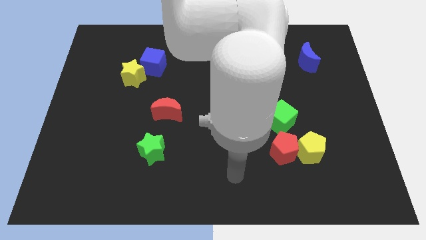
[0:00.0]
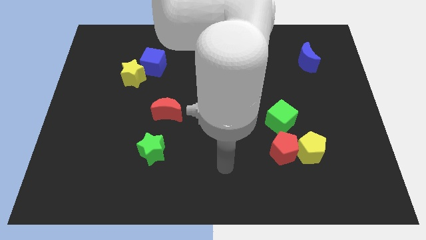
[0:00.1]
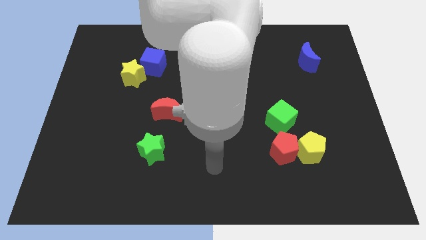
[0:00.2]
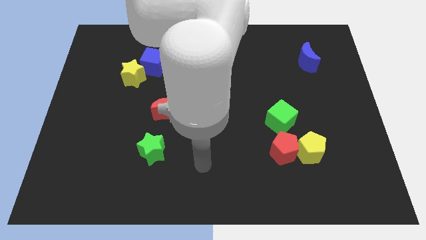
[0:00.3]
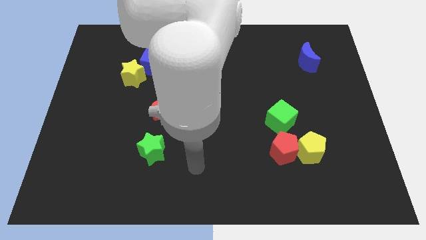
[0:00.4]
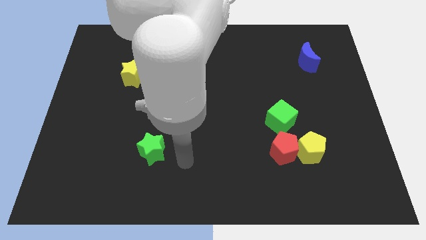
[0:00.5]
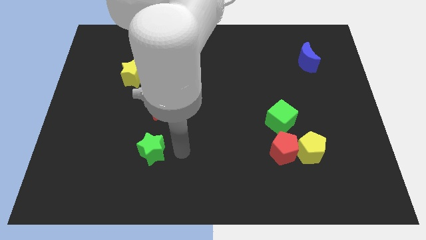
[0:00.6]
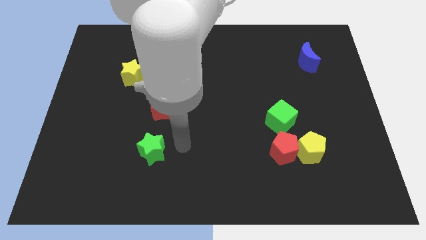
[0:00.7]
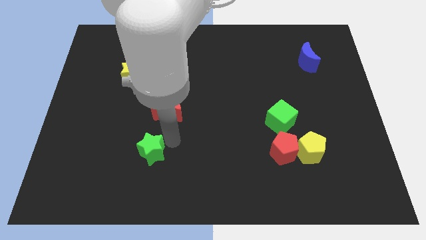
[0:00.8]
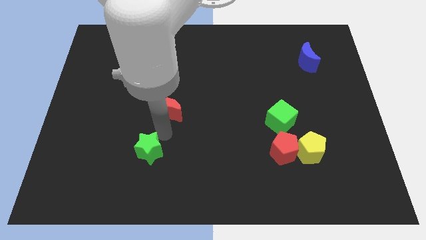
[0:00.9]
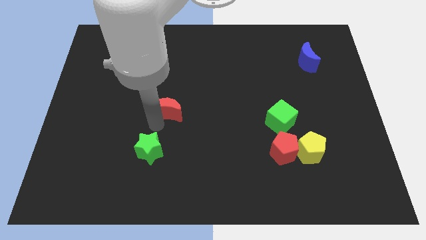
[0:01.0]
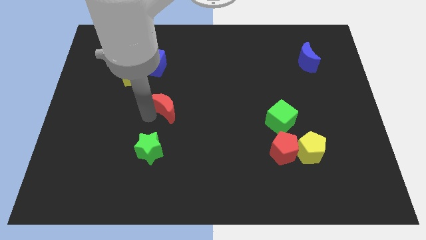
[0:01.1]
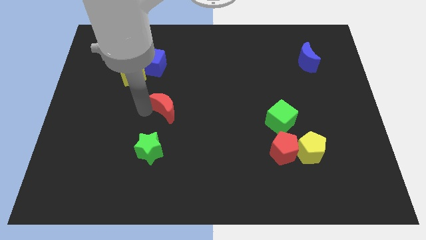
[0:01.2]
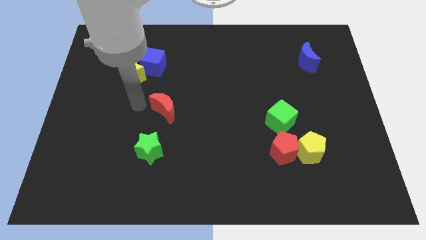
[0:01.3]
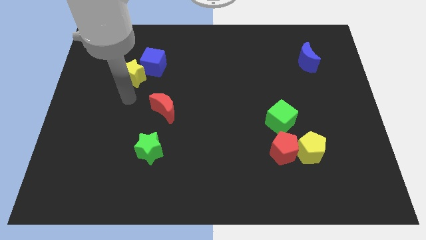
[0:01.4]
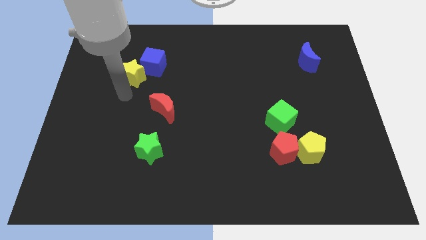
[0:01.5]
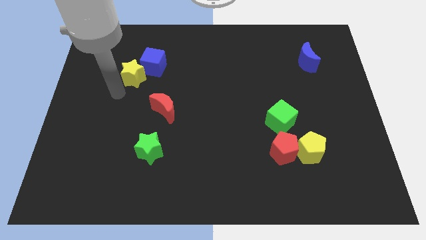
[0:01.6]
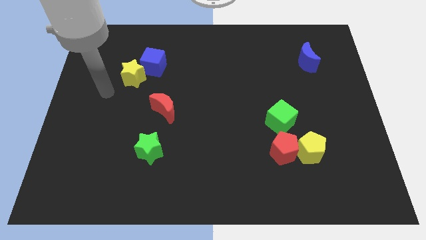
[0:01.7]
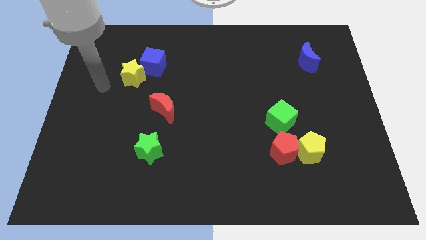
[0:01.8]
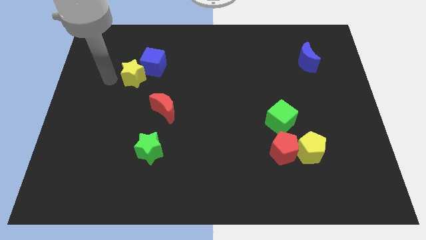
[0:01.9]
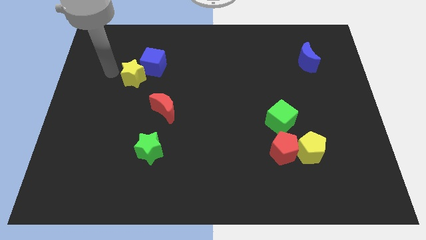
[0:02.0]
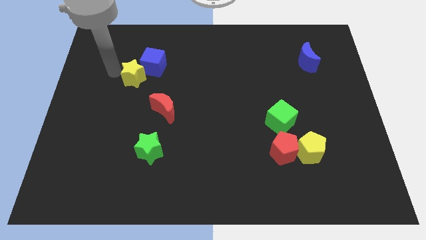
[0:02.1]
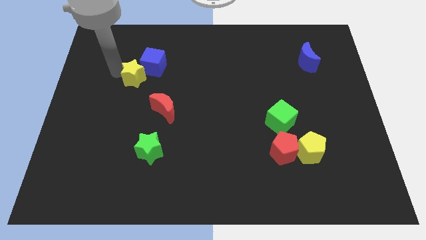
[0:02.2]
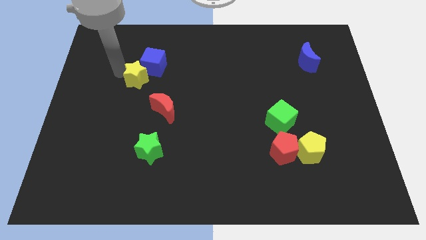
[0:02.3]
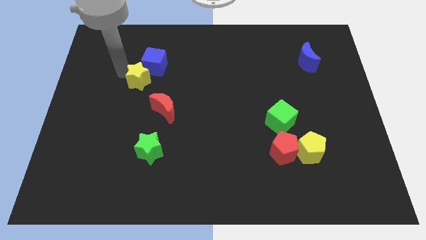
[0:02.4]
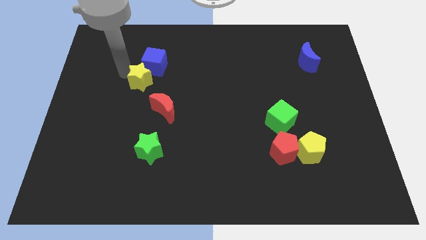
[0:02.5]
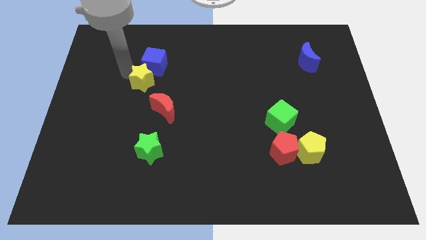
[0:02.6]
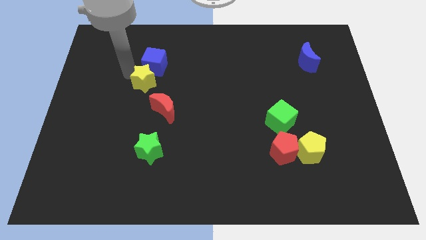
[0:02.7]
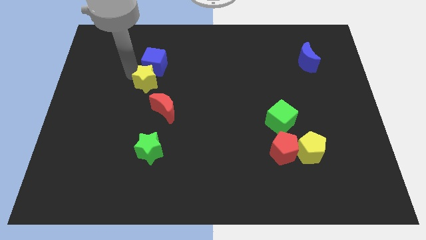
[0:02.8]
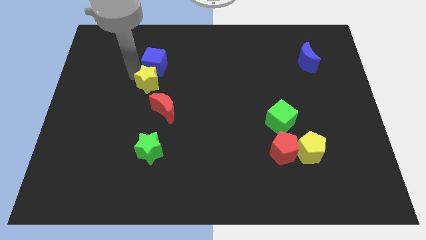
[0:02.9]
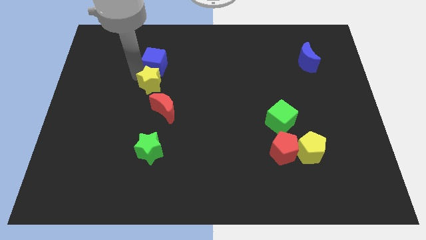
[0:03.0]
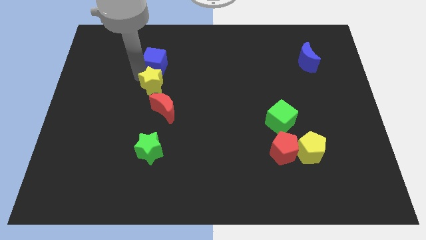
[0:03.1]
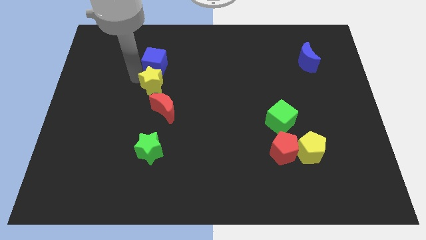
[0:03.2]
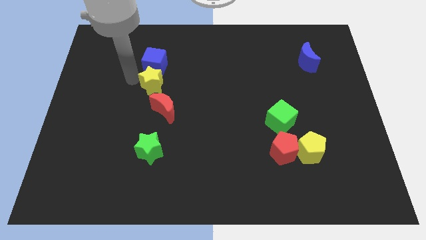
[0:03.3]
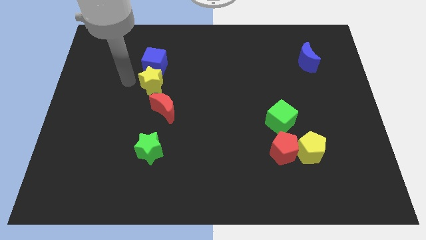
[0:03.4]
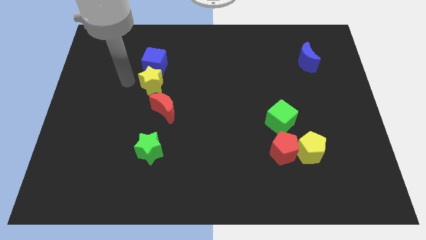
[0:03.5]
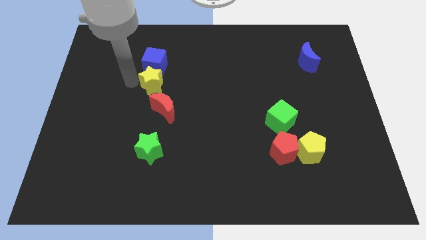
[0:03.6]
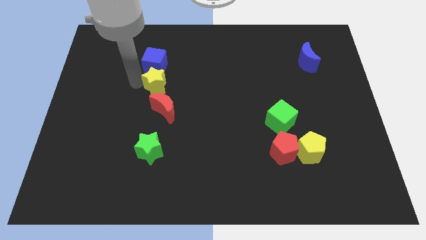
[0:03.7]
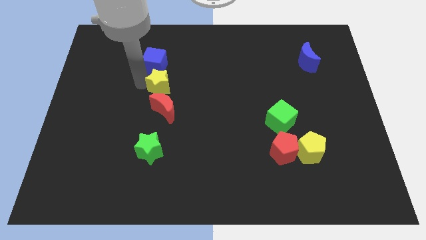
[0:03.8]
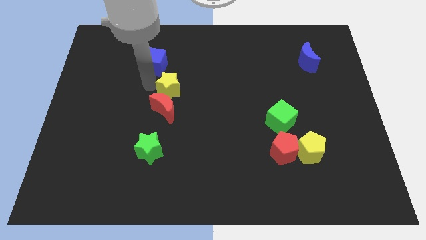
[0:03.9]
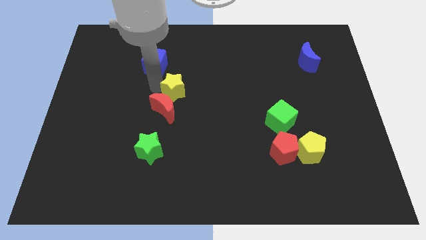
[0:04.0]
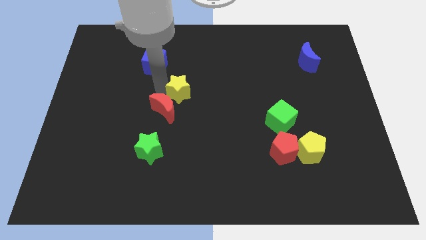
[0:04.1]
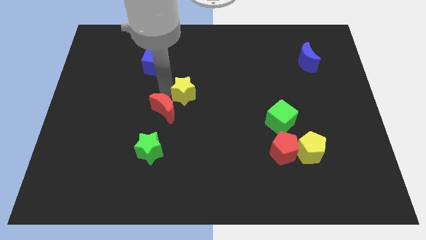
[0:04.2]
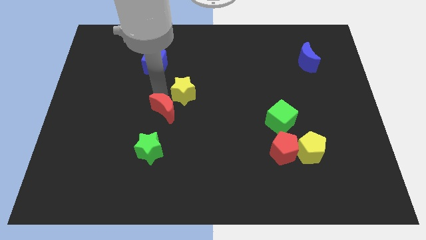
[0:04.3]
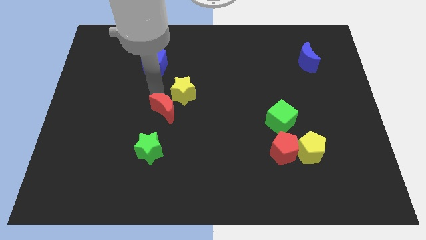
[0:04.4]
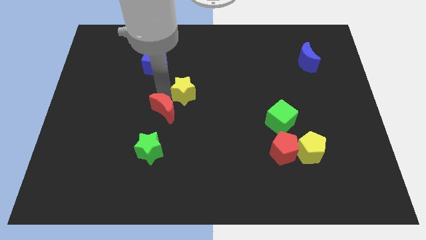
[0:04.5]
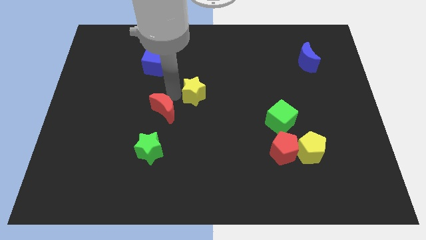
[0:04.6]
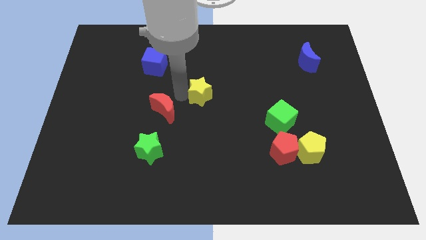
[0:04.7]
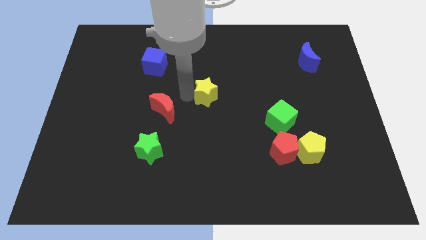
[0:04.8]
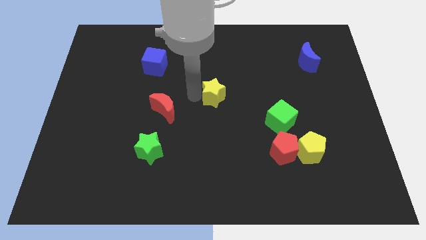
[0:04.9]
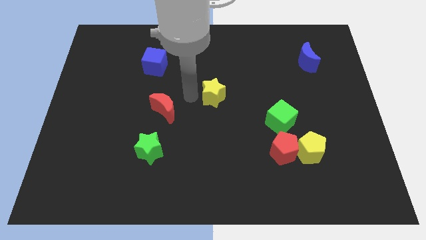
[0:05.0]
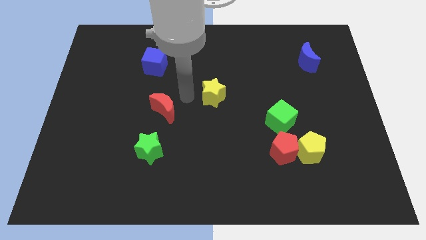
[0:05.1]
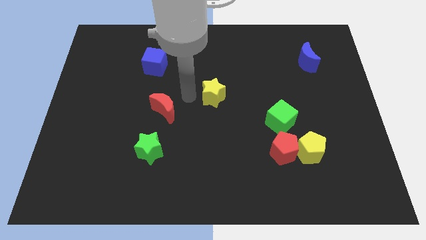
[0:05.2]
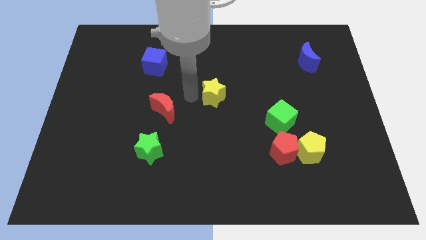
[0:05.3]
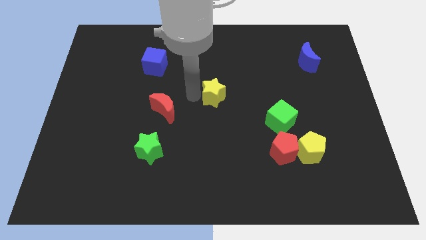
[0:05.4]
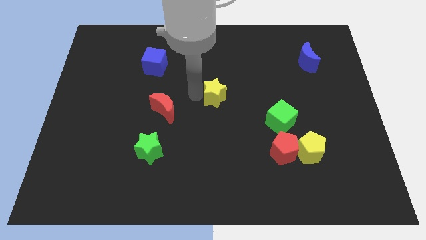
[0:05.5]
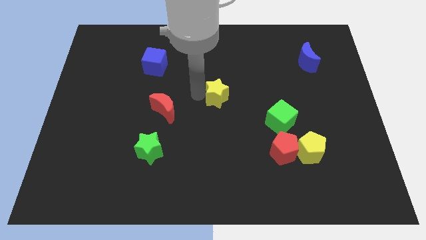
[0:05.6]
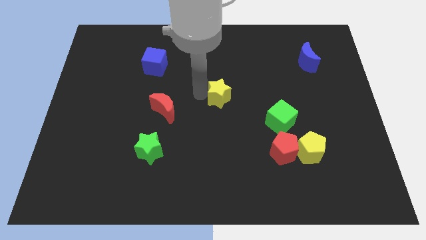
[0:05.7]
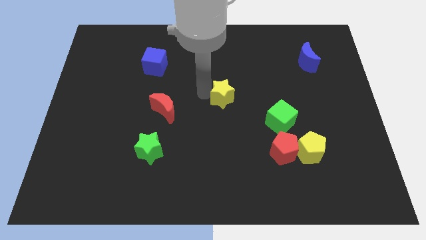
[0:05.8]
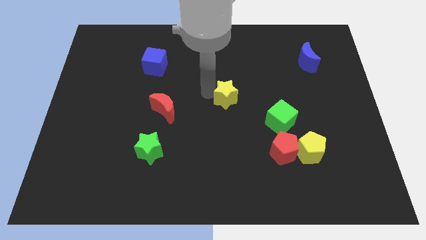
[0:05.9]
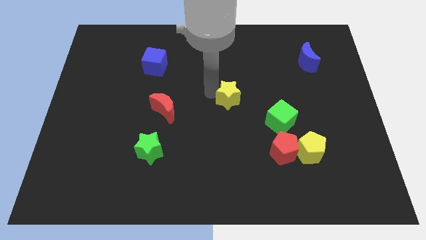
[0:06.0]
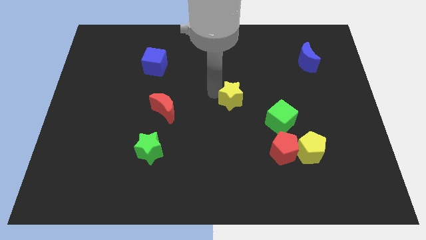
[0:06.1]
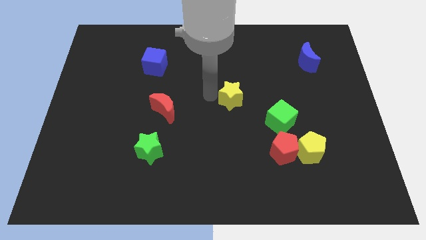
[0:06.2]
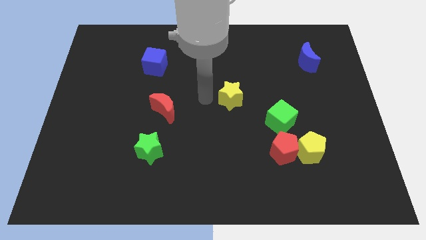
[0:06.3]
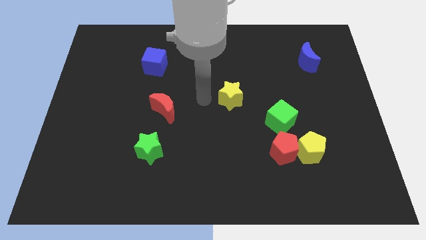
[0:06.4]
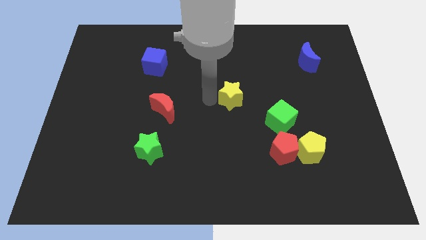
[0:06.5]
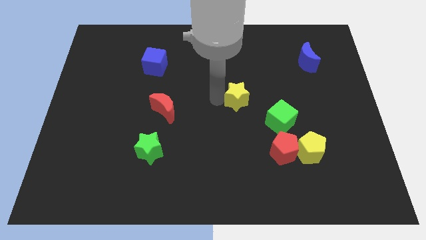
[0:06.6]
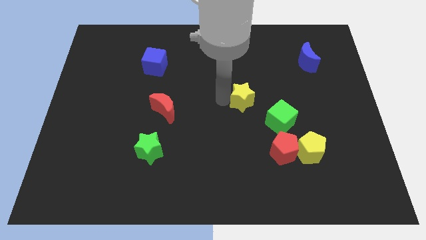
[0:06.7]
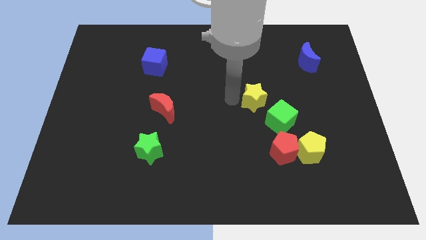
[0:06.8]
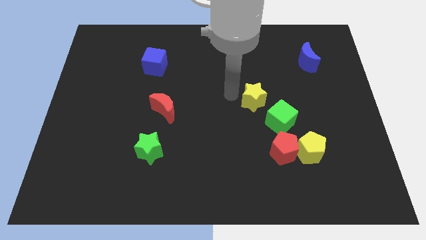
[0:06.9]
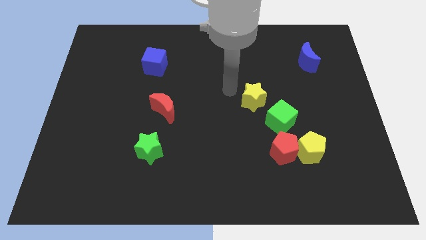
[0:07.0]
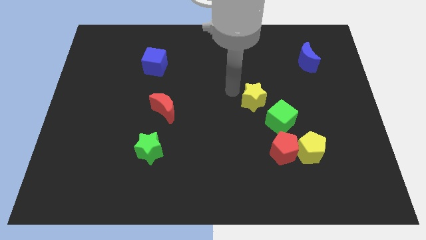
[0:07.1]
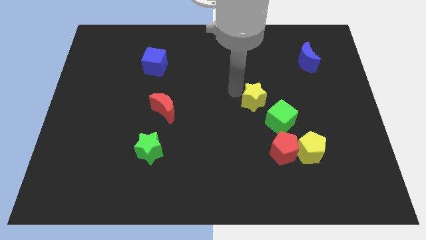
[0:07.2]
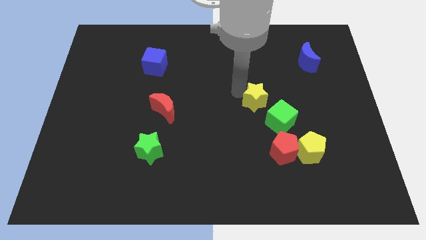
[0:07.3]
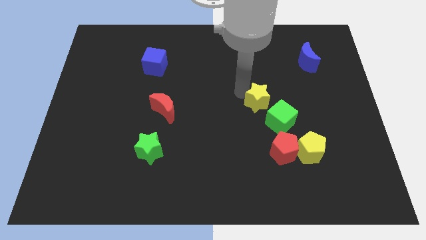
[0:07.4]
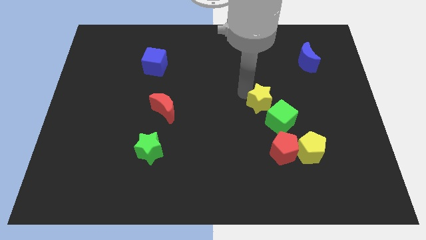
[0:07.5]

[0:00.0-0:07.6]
put the yellow star to the top of the red pentagon
